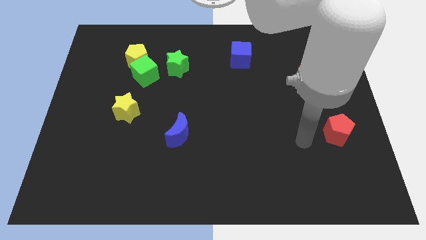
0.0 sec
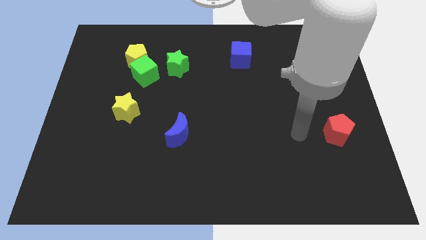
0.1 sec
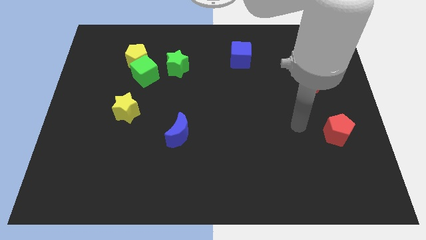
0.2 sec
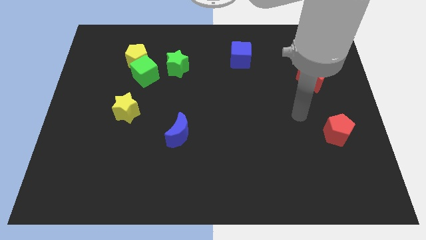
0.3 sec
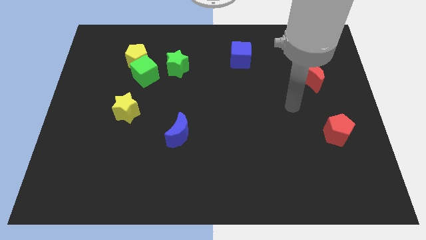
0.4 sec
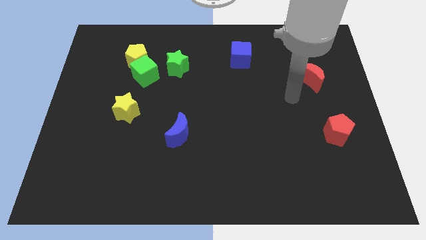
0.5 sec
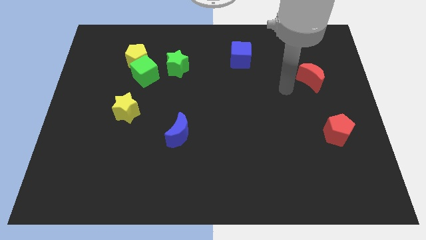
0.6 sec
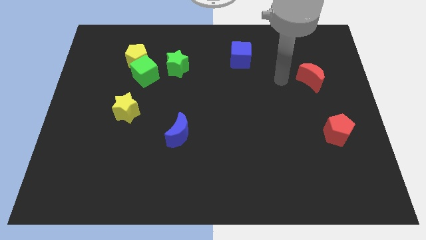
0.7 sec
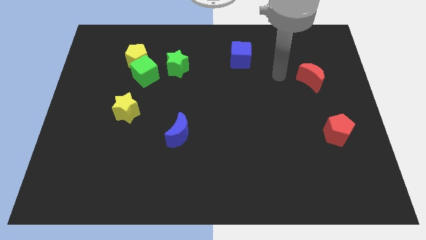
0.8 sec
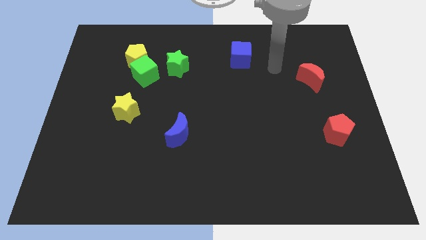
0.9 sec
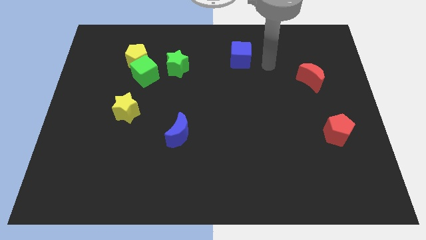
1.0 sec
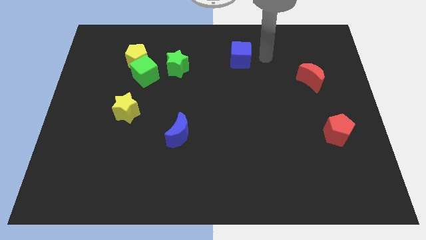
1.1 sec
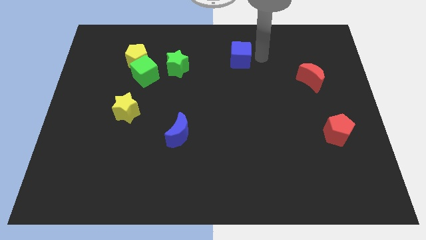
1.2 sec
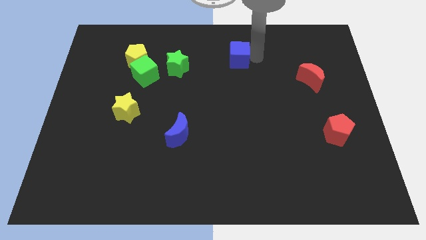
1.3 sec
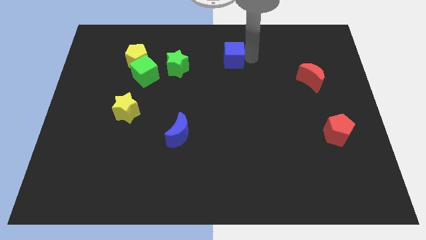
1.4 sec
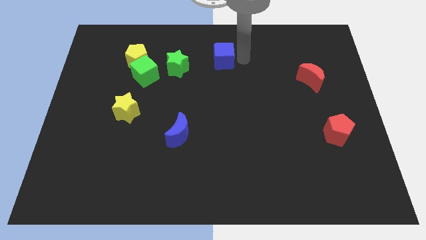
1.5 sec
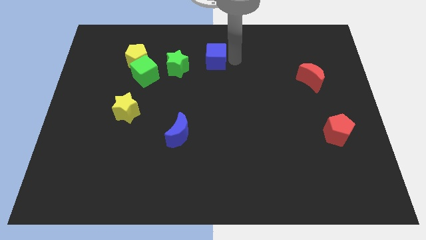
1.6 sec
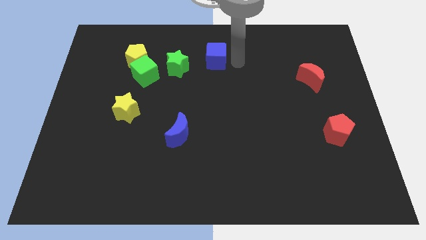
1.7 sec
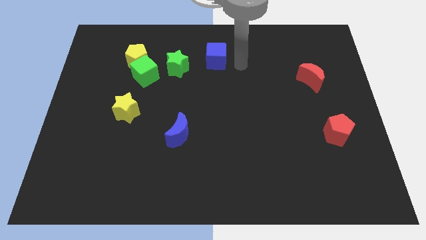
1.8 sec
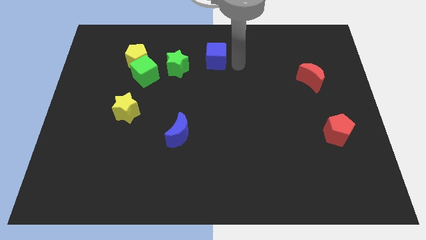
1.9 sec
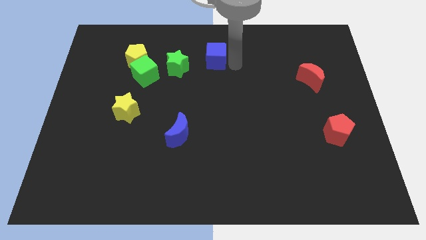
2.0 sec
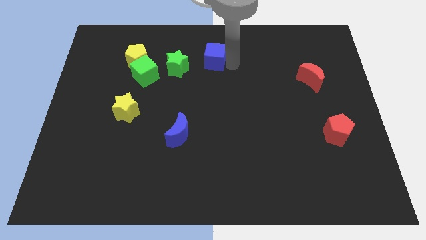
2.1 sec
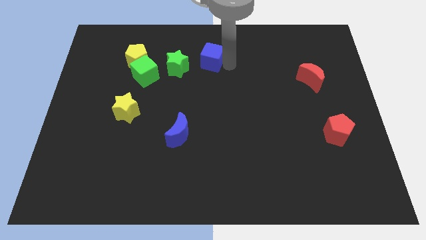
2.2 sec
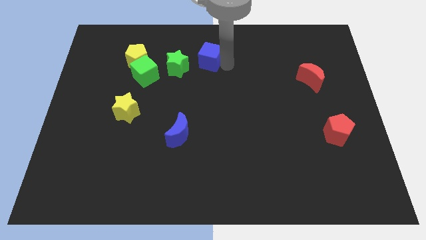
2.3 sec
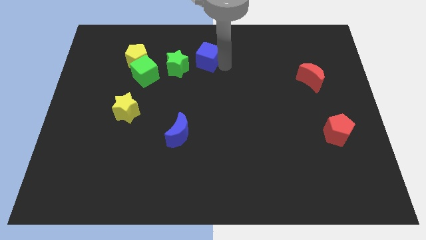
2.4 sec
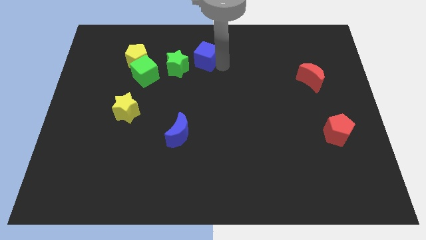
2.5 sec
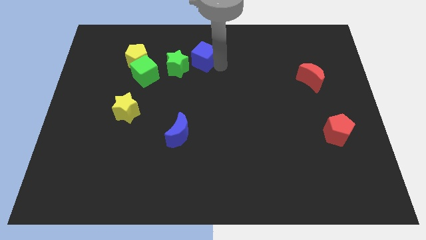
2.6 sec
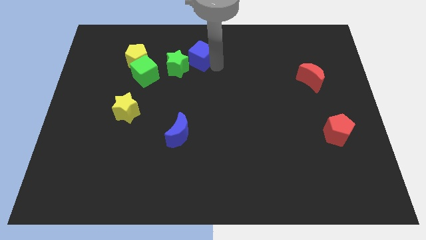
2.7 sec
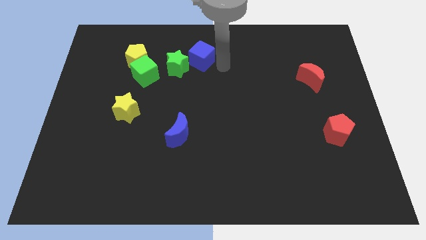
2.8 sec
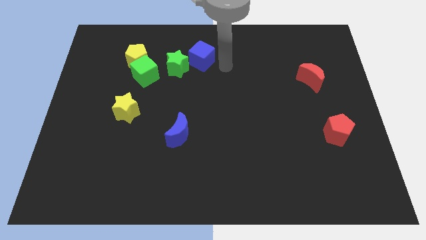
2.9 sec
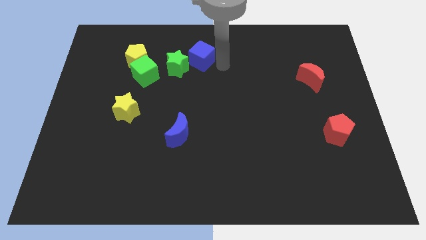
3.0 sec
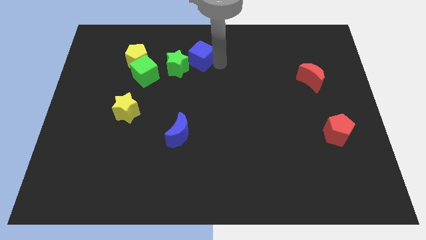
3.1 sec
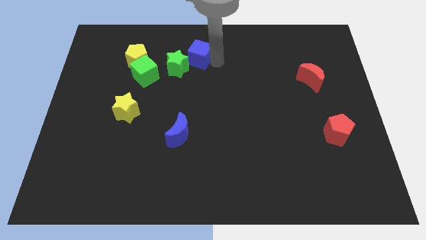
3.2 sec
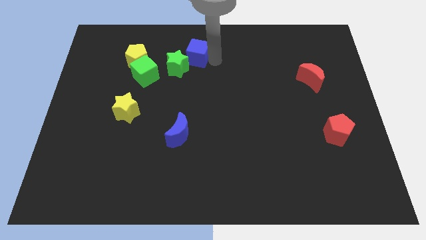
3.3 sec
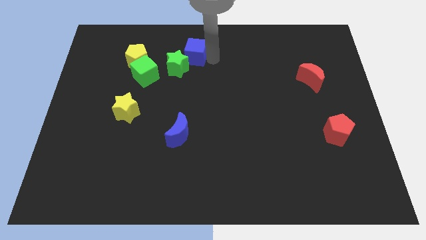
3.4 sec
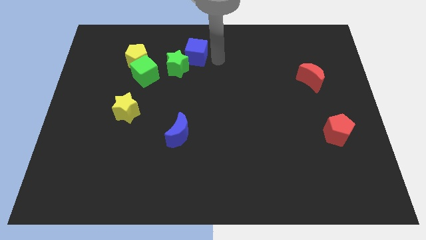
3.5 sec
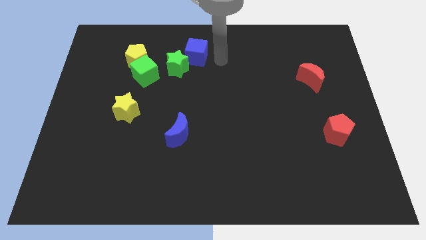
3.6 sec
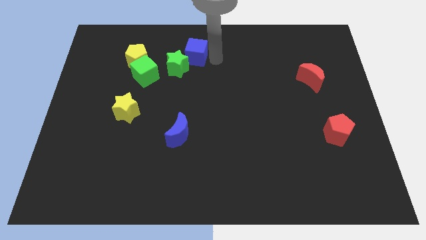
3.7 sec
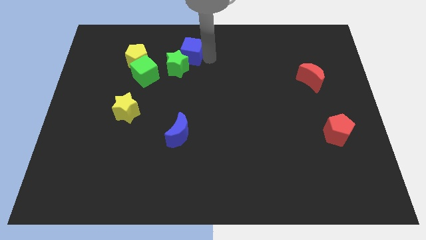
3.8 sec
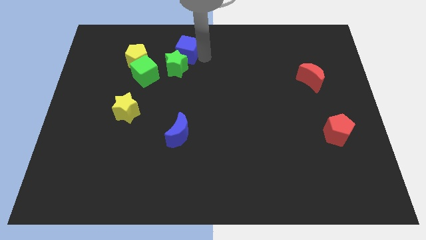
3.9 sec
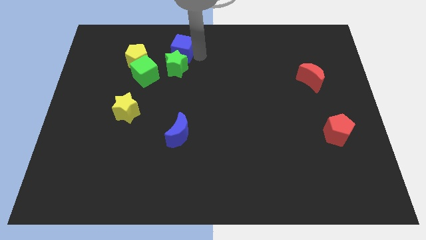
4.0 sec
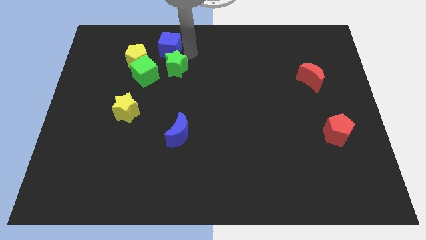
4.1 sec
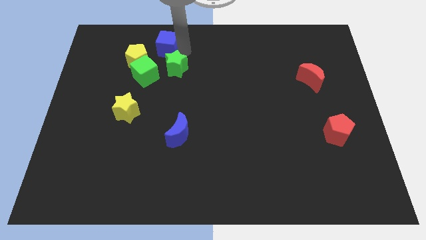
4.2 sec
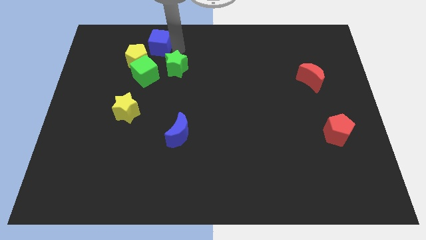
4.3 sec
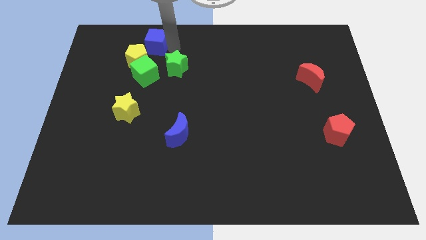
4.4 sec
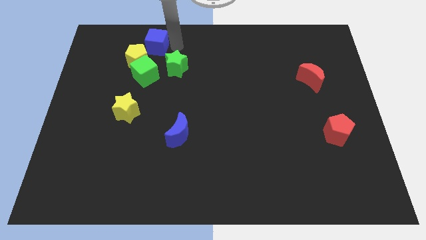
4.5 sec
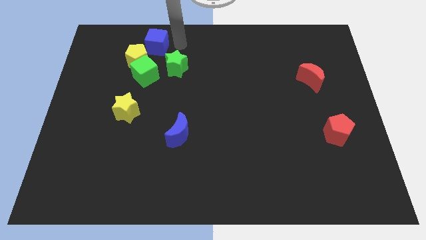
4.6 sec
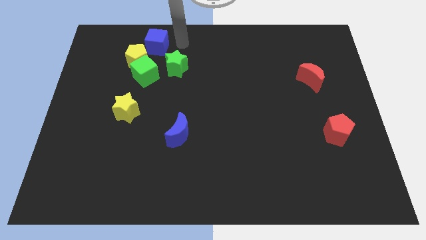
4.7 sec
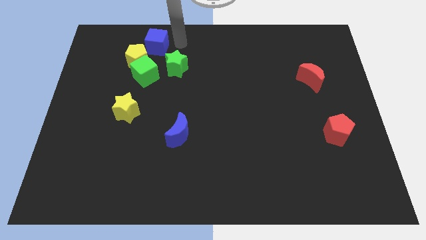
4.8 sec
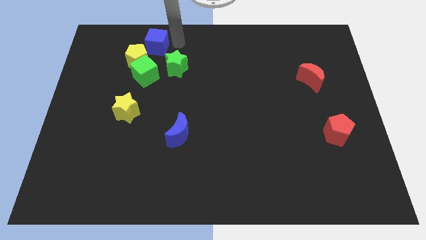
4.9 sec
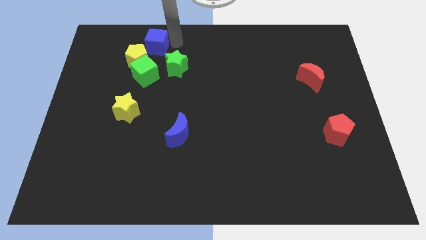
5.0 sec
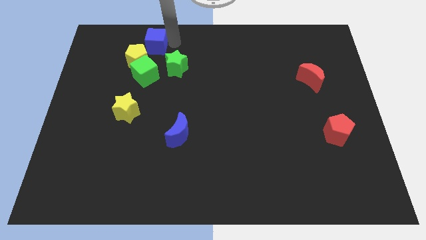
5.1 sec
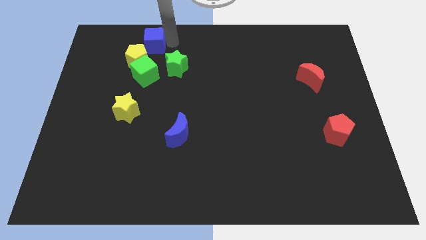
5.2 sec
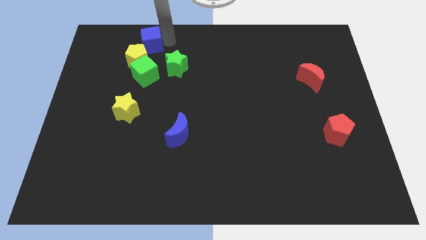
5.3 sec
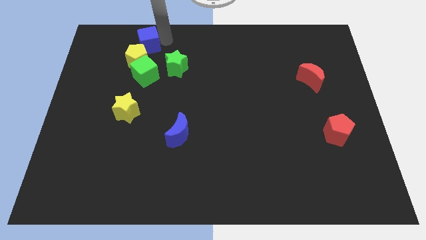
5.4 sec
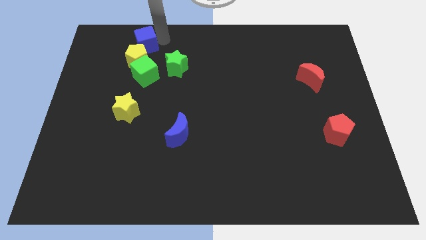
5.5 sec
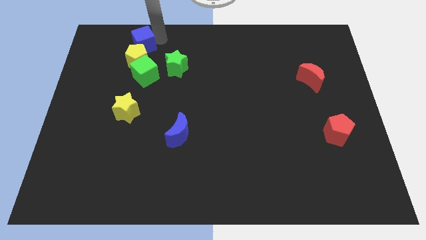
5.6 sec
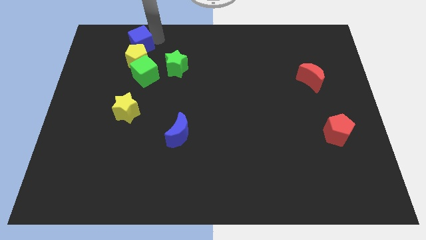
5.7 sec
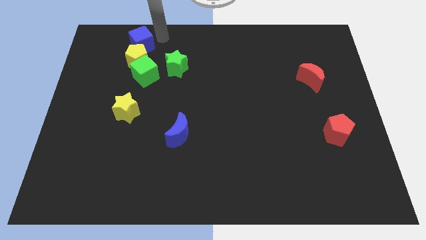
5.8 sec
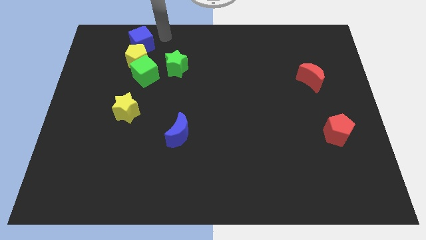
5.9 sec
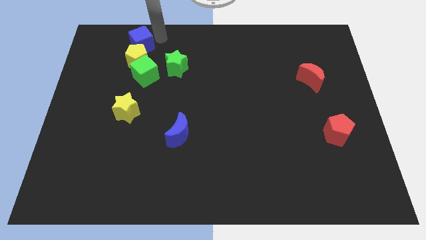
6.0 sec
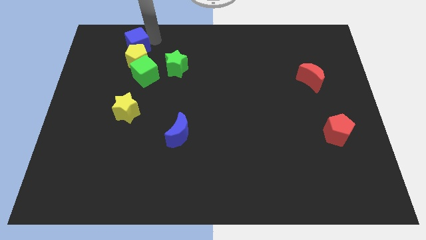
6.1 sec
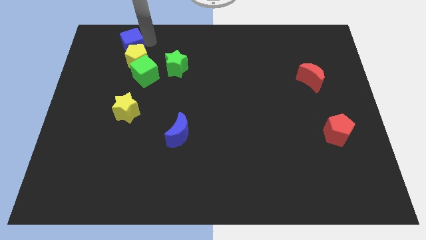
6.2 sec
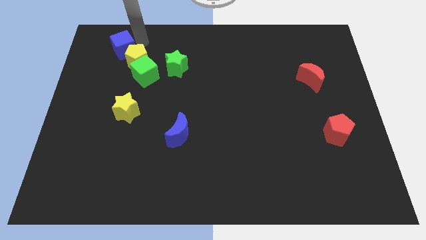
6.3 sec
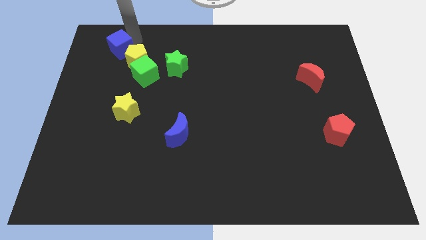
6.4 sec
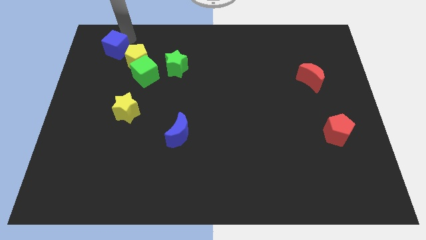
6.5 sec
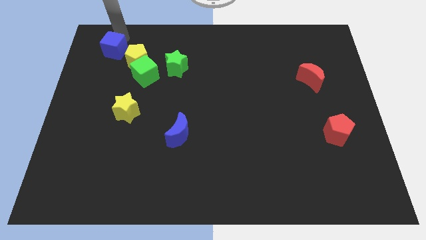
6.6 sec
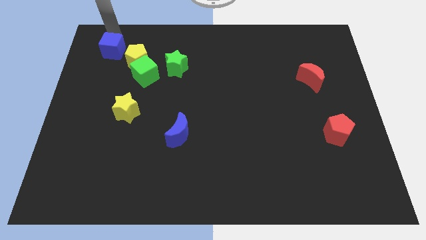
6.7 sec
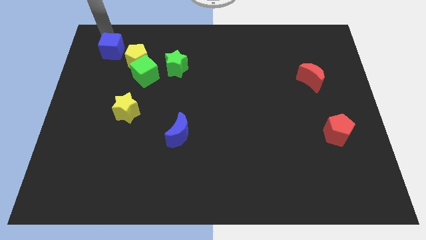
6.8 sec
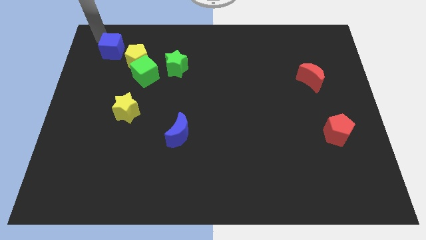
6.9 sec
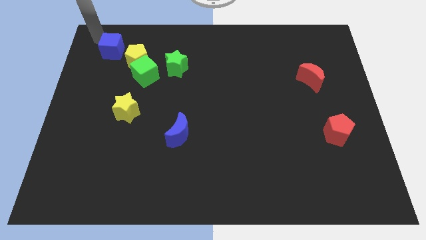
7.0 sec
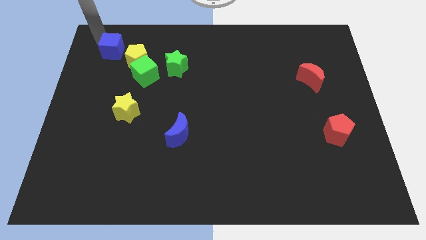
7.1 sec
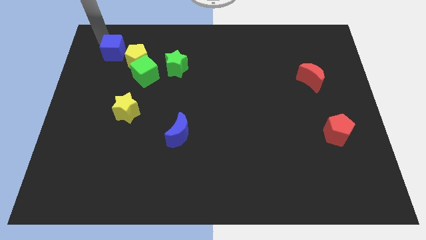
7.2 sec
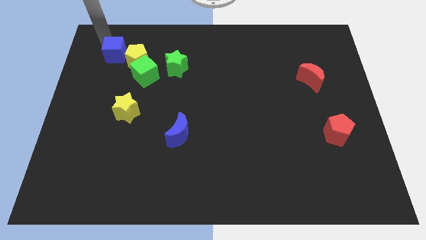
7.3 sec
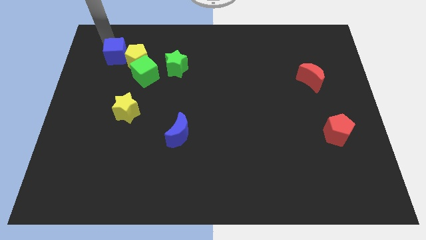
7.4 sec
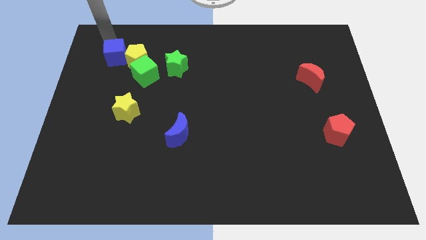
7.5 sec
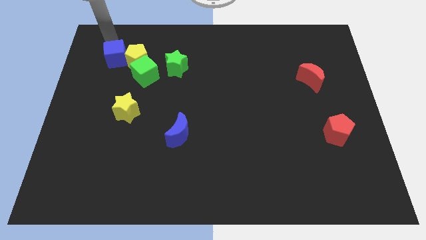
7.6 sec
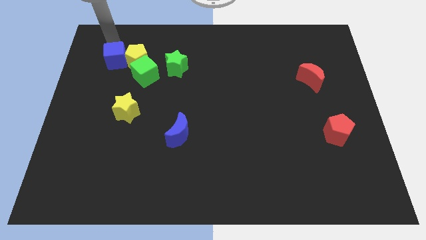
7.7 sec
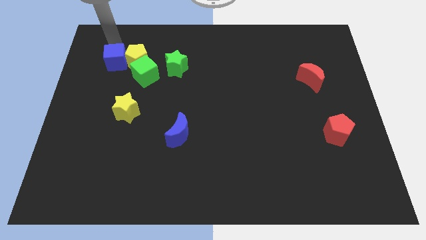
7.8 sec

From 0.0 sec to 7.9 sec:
slide the blue cube just left of the green star
